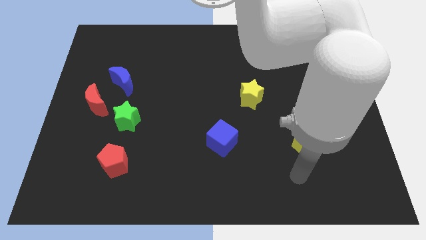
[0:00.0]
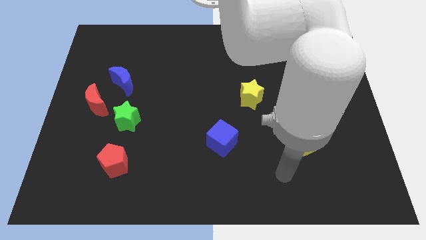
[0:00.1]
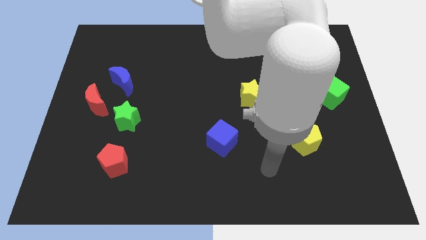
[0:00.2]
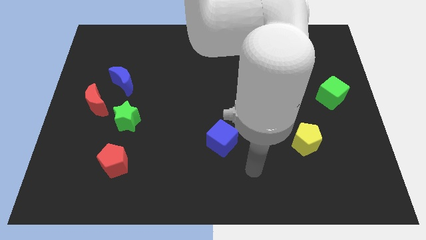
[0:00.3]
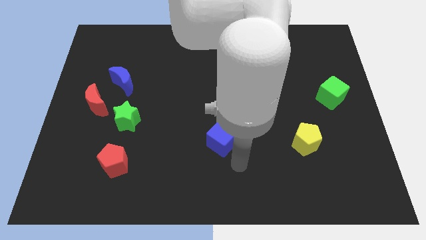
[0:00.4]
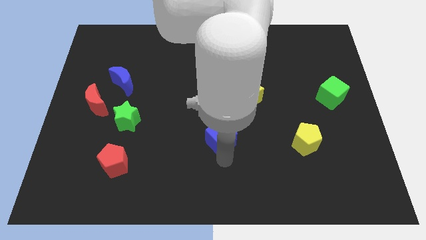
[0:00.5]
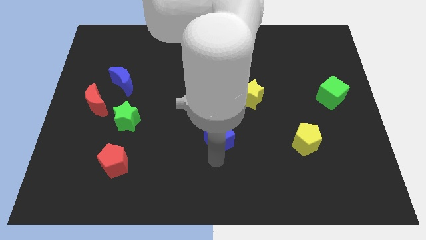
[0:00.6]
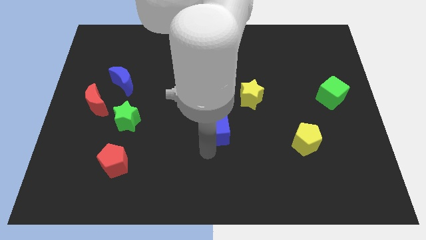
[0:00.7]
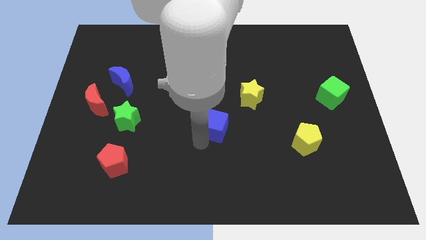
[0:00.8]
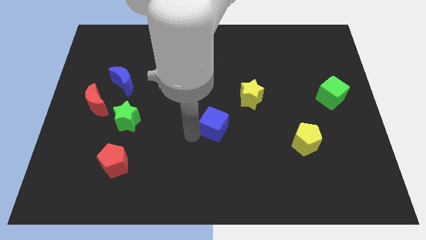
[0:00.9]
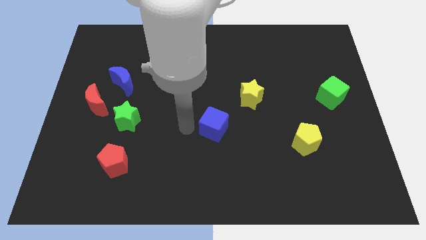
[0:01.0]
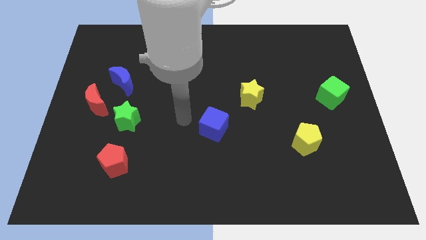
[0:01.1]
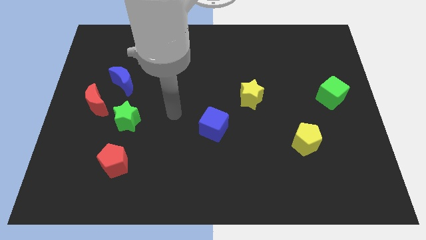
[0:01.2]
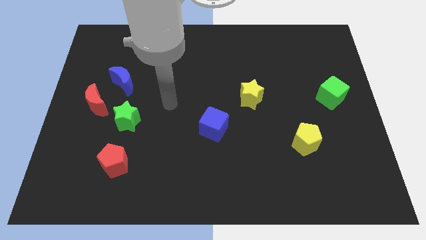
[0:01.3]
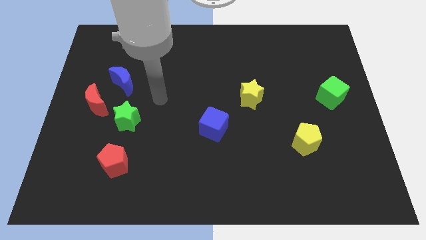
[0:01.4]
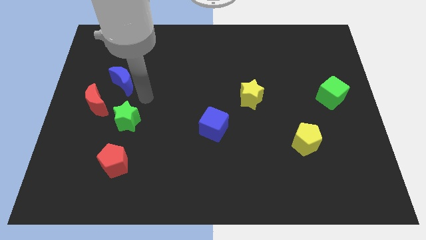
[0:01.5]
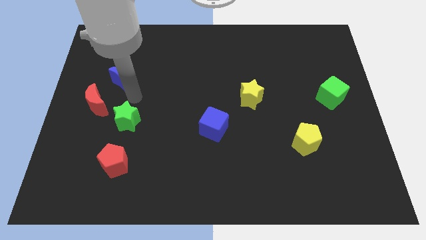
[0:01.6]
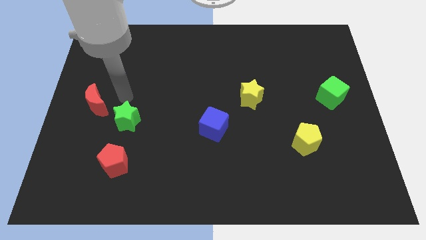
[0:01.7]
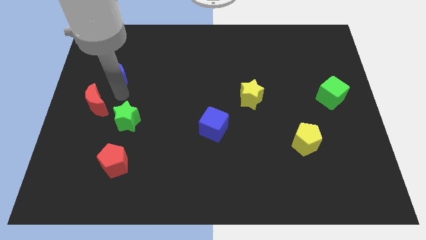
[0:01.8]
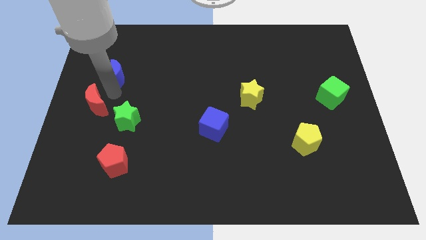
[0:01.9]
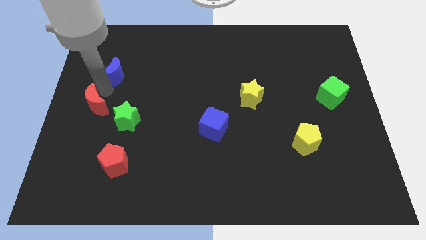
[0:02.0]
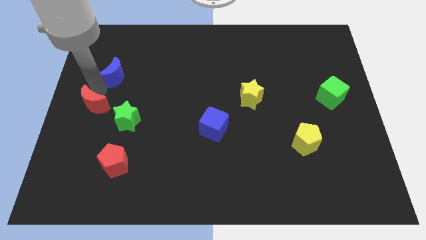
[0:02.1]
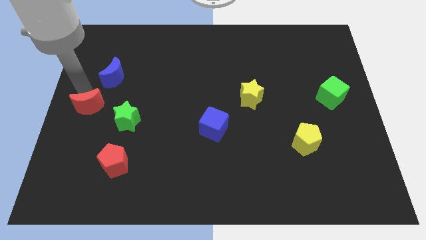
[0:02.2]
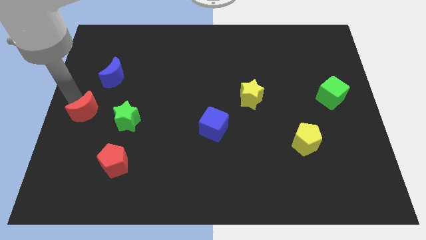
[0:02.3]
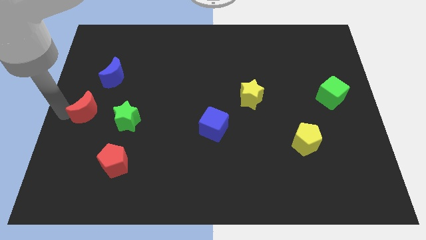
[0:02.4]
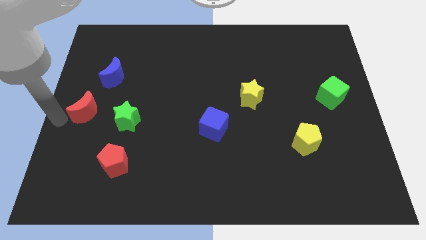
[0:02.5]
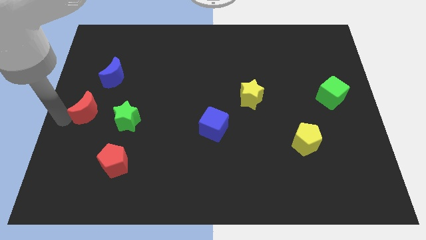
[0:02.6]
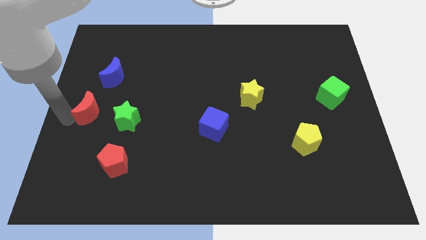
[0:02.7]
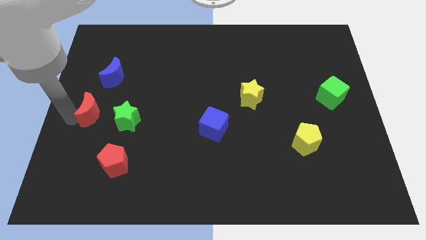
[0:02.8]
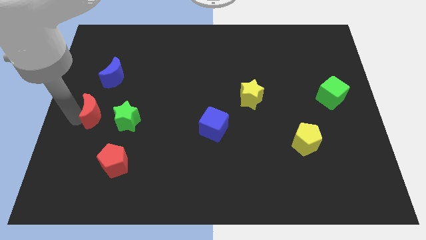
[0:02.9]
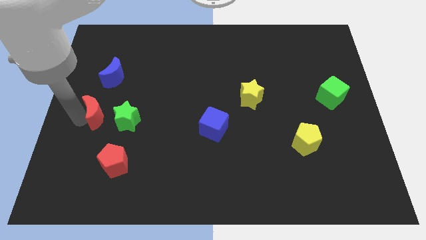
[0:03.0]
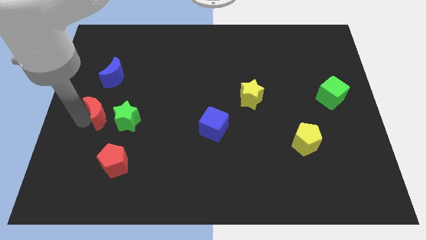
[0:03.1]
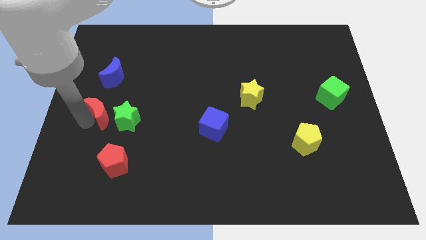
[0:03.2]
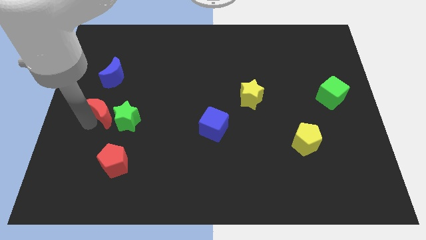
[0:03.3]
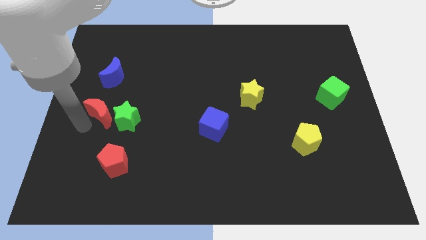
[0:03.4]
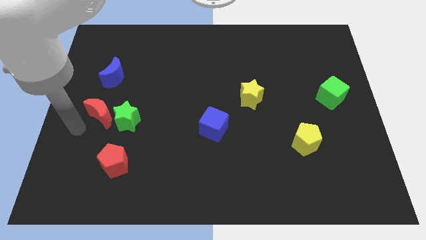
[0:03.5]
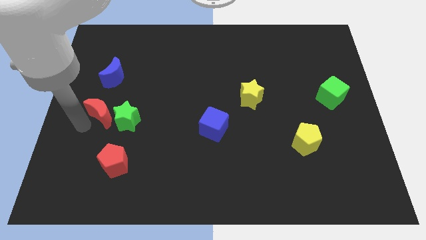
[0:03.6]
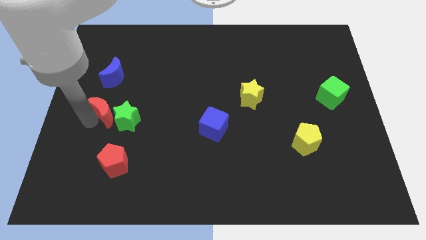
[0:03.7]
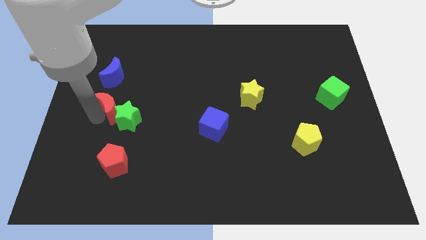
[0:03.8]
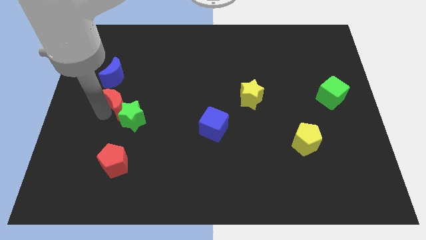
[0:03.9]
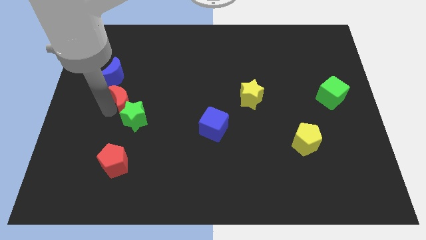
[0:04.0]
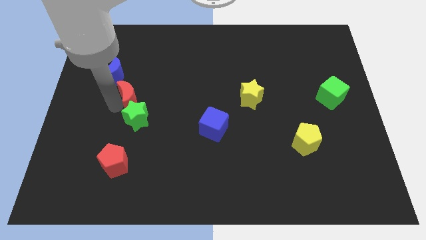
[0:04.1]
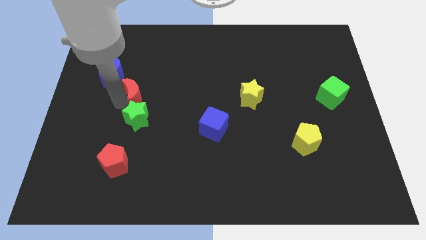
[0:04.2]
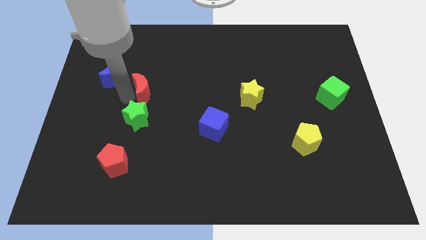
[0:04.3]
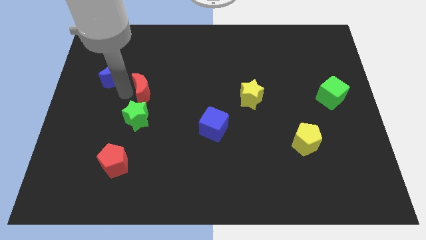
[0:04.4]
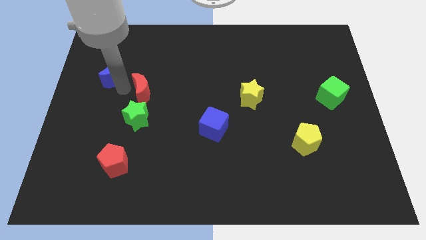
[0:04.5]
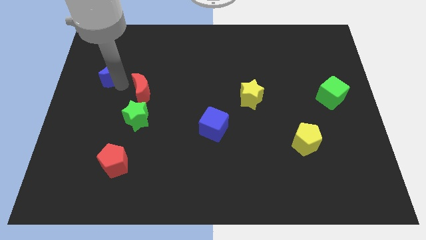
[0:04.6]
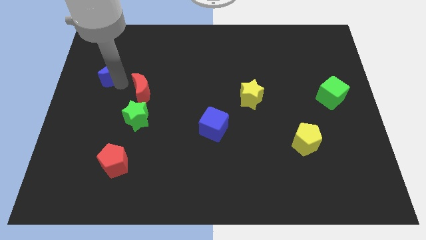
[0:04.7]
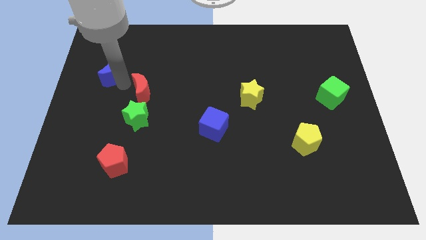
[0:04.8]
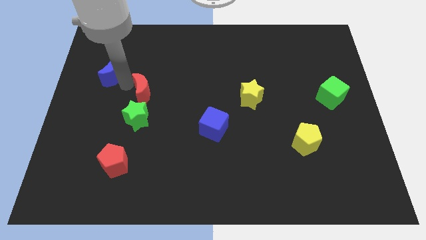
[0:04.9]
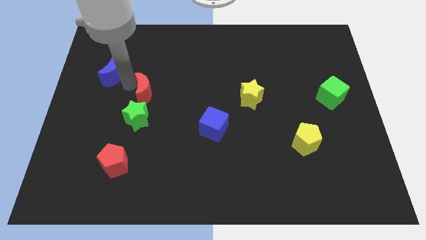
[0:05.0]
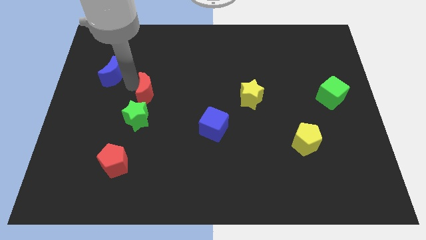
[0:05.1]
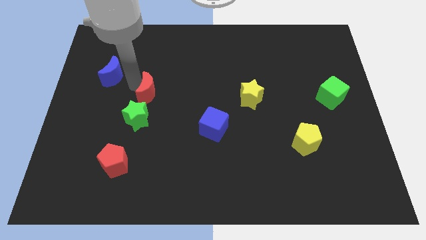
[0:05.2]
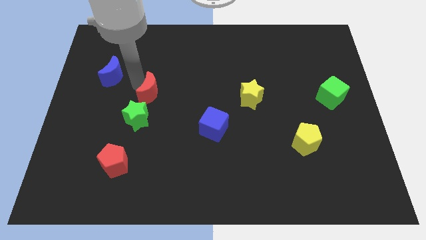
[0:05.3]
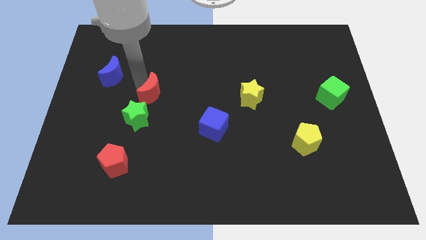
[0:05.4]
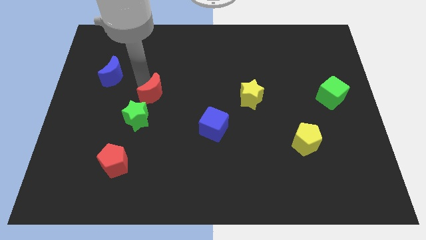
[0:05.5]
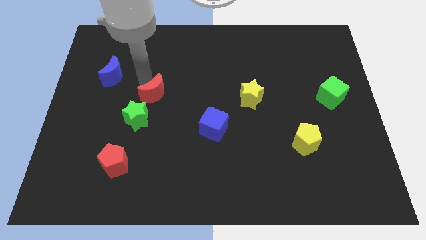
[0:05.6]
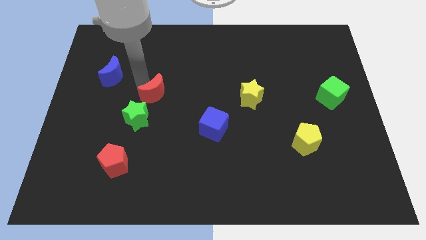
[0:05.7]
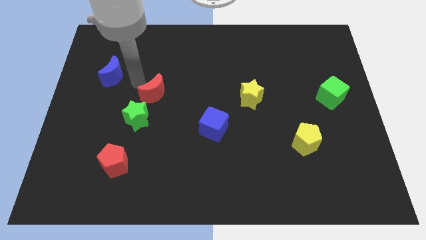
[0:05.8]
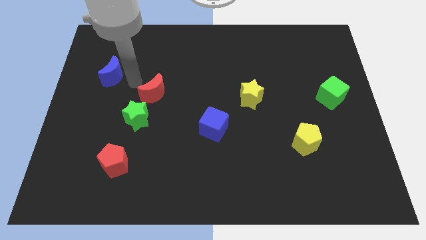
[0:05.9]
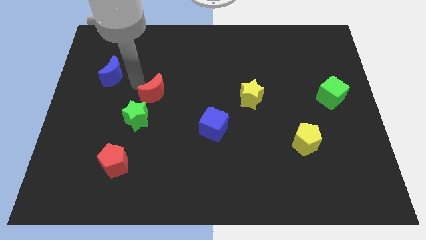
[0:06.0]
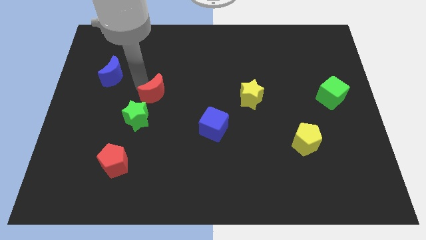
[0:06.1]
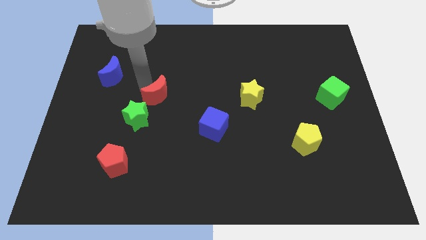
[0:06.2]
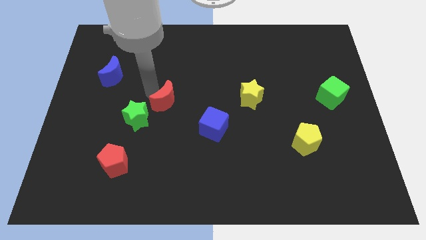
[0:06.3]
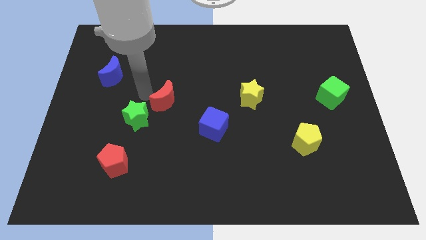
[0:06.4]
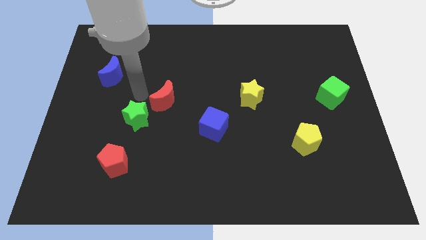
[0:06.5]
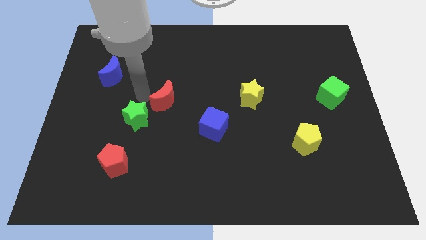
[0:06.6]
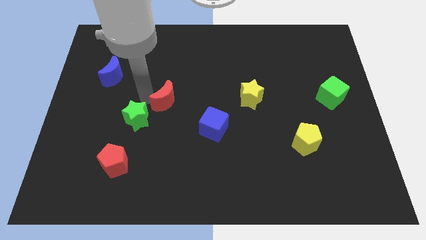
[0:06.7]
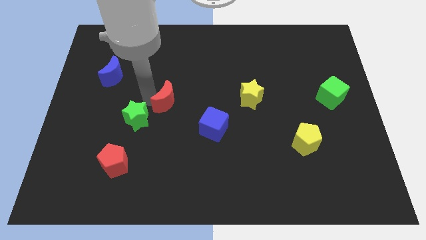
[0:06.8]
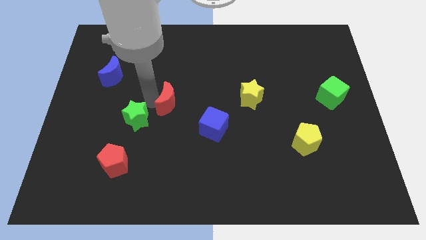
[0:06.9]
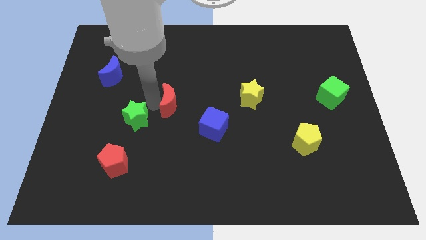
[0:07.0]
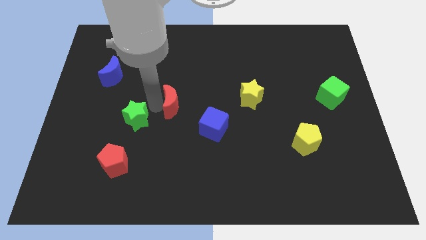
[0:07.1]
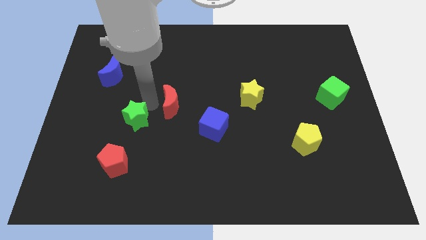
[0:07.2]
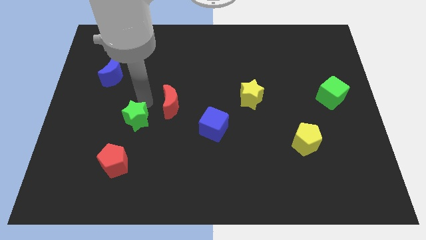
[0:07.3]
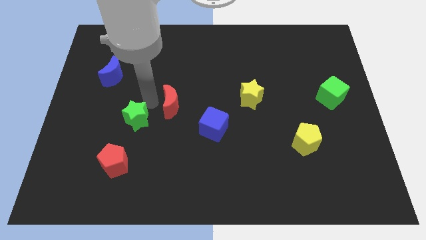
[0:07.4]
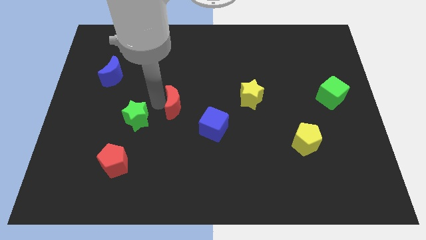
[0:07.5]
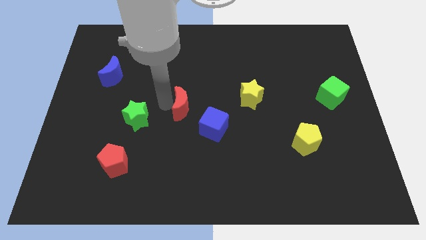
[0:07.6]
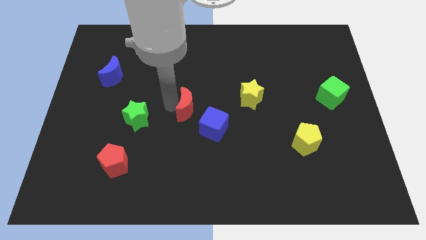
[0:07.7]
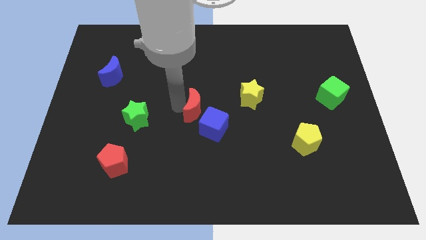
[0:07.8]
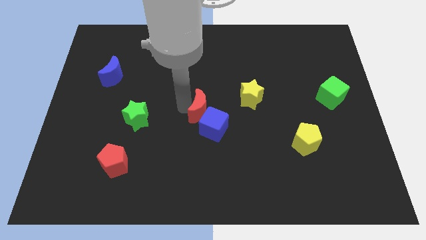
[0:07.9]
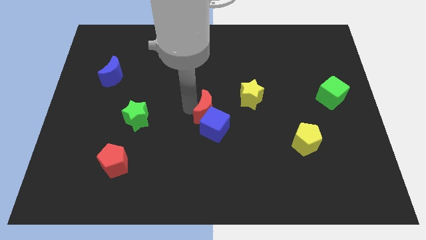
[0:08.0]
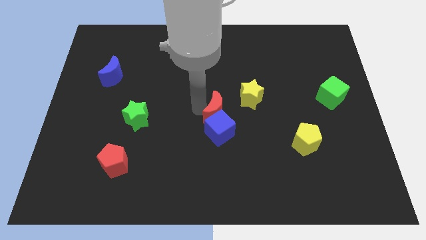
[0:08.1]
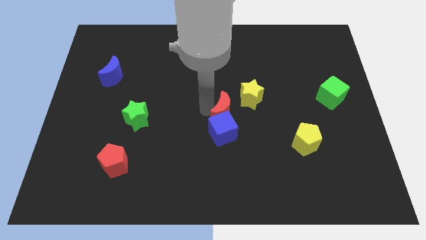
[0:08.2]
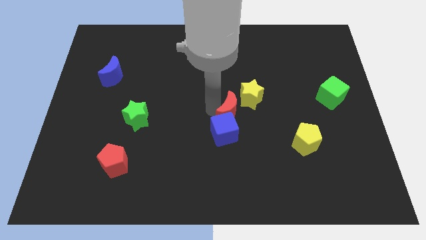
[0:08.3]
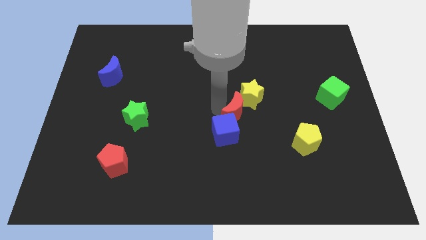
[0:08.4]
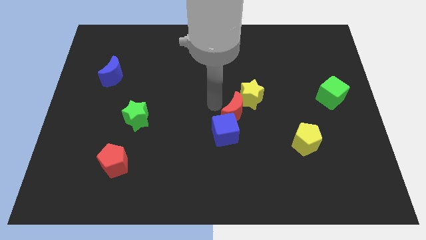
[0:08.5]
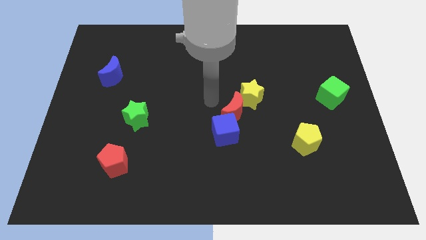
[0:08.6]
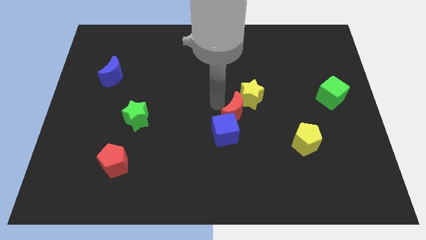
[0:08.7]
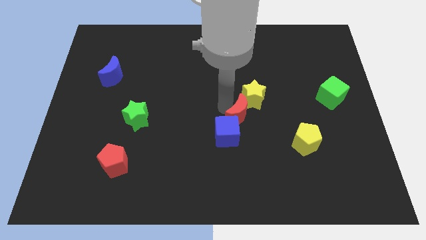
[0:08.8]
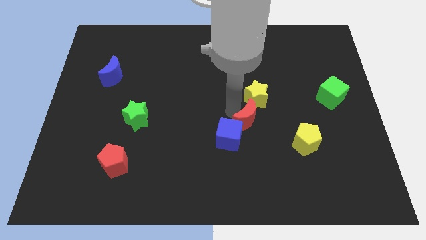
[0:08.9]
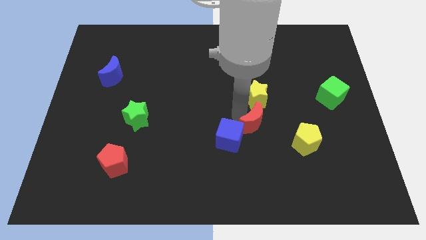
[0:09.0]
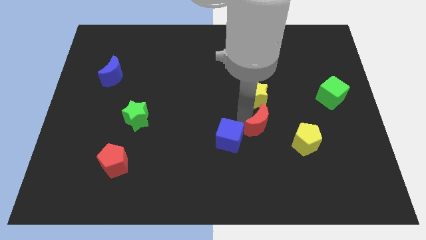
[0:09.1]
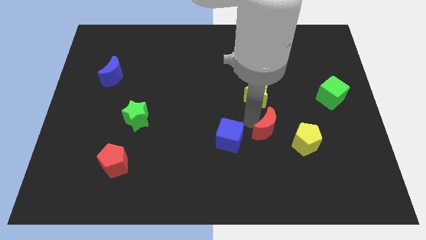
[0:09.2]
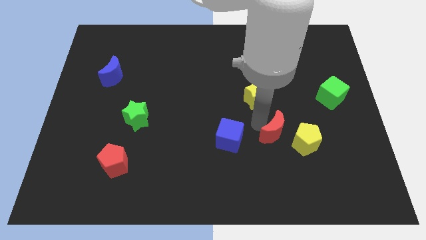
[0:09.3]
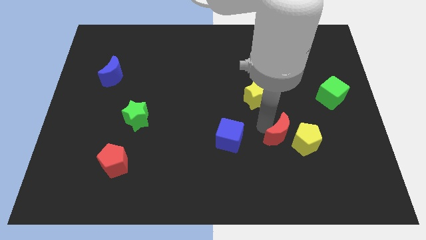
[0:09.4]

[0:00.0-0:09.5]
push the red moon close to the yellow pentagon
